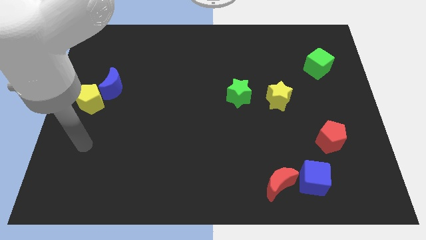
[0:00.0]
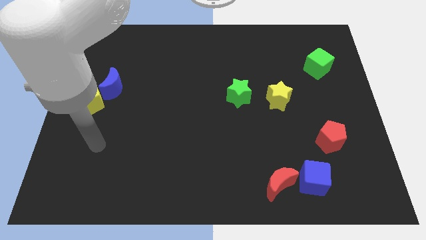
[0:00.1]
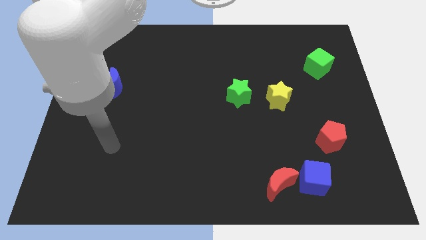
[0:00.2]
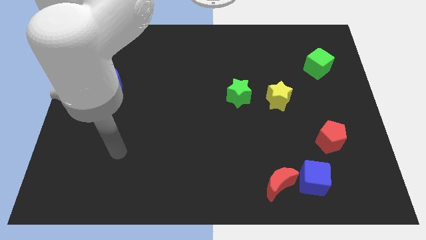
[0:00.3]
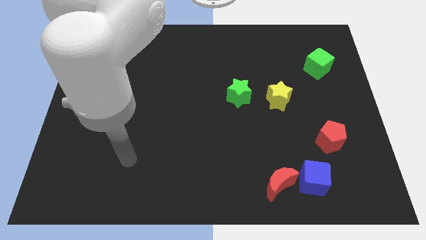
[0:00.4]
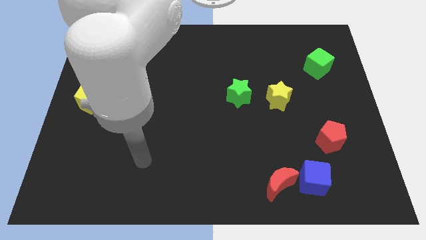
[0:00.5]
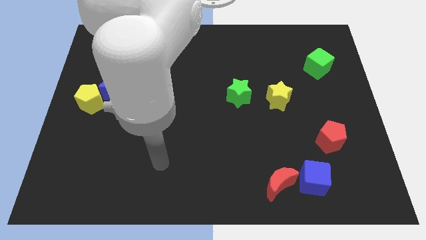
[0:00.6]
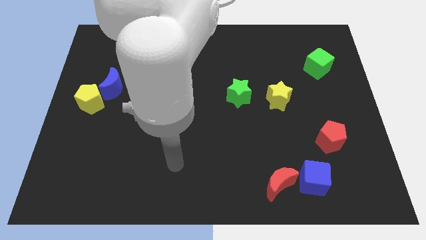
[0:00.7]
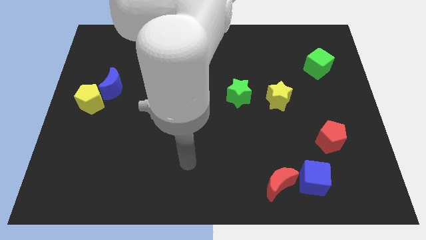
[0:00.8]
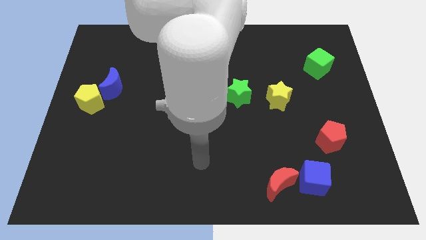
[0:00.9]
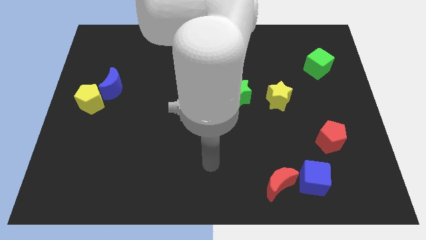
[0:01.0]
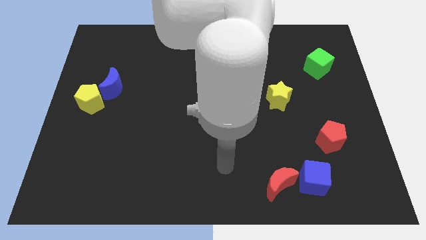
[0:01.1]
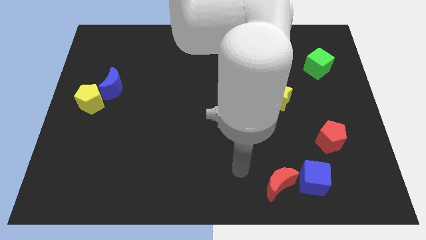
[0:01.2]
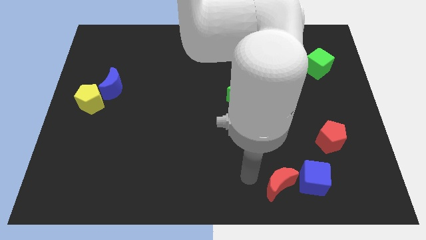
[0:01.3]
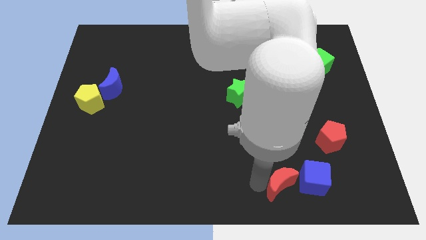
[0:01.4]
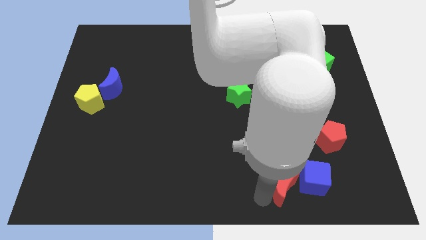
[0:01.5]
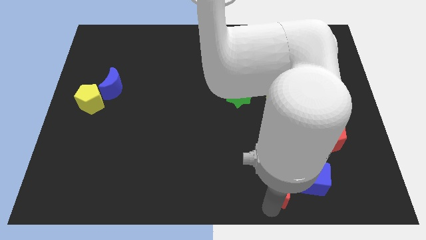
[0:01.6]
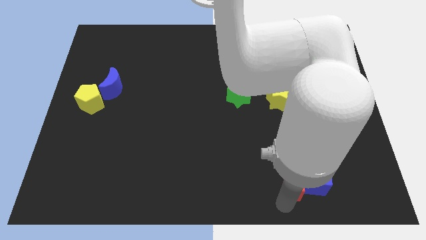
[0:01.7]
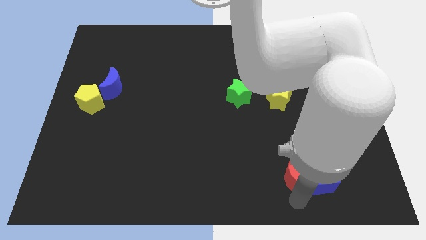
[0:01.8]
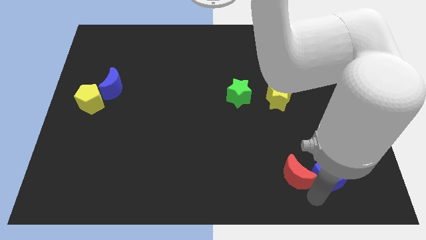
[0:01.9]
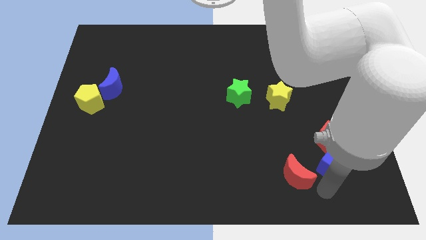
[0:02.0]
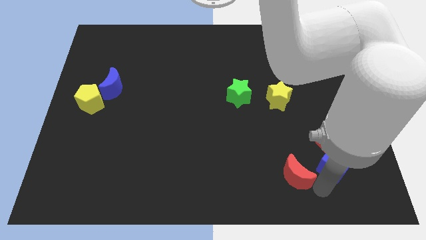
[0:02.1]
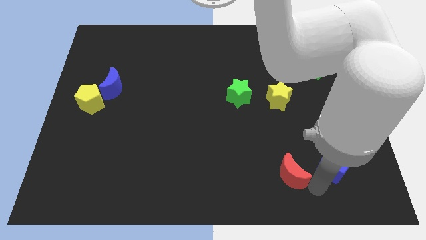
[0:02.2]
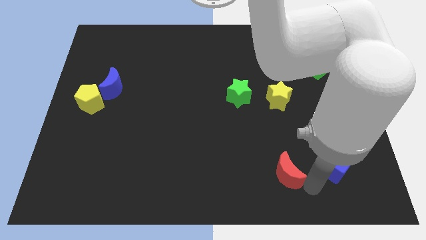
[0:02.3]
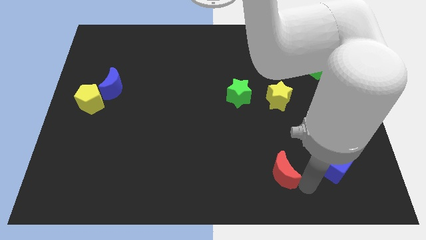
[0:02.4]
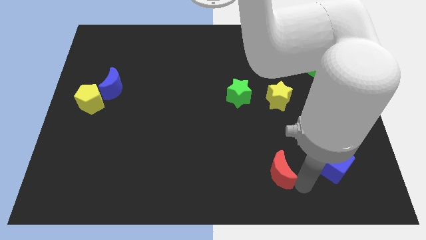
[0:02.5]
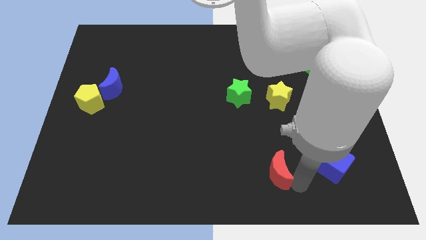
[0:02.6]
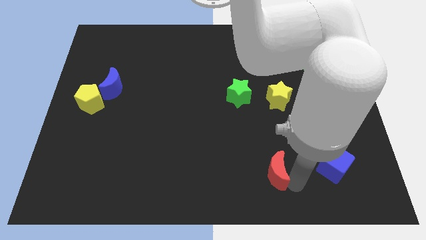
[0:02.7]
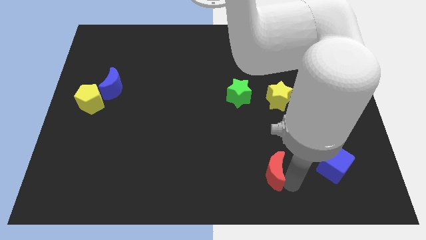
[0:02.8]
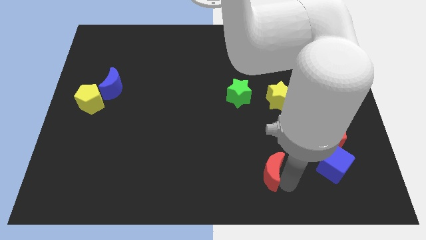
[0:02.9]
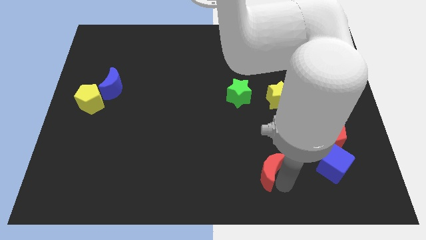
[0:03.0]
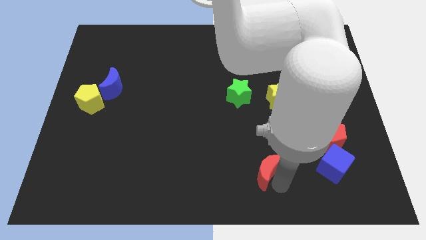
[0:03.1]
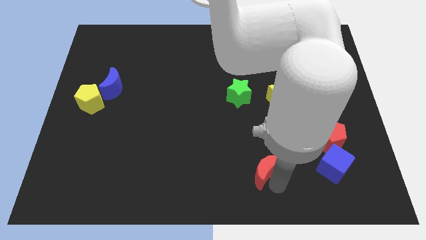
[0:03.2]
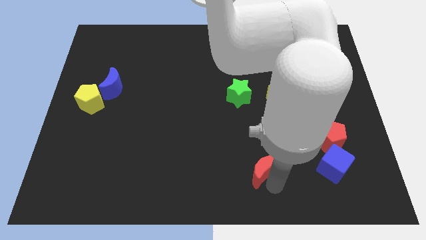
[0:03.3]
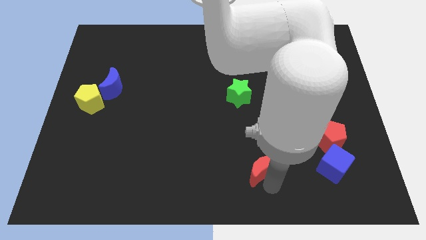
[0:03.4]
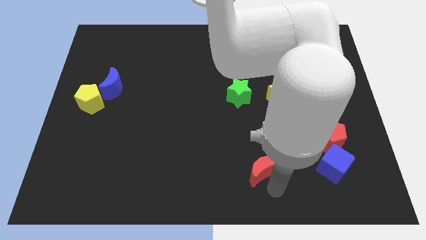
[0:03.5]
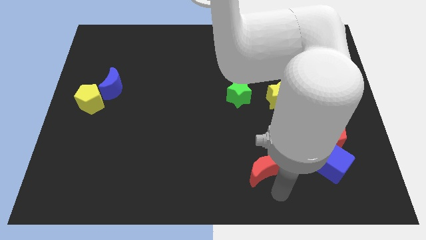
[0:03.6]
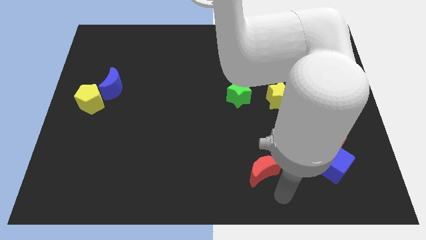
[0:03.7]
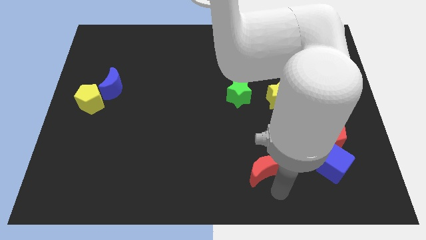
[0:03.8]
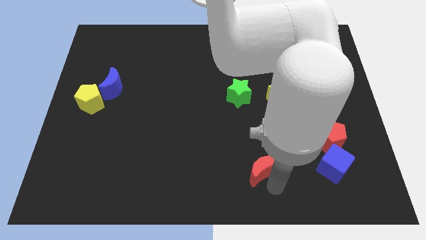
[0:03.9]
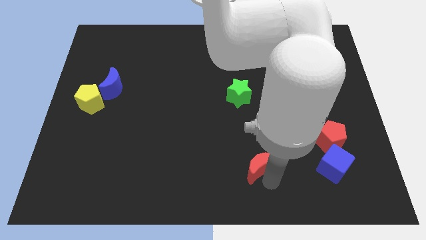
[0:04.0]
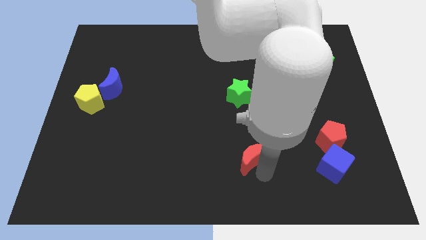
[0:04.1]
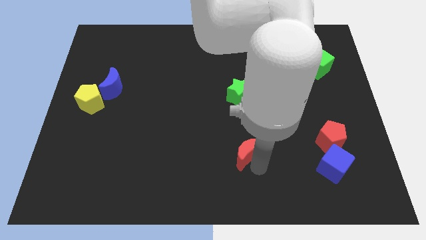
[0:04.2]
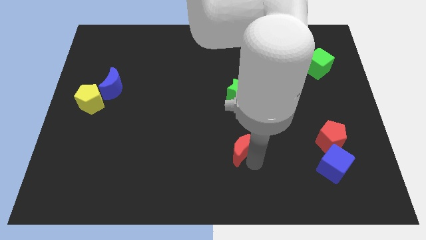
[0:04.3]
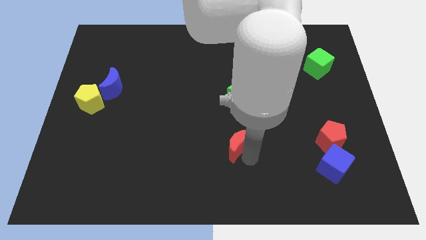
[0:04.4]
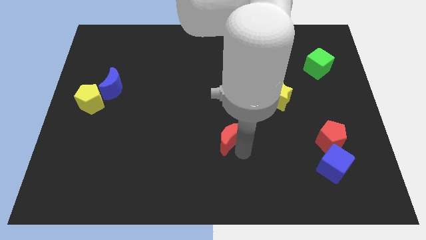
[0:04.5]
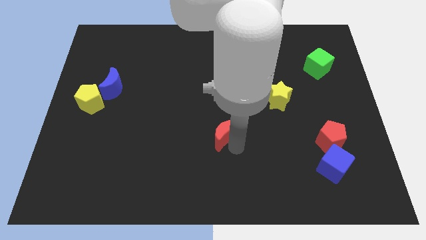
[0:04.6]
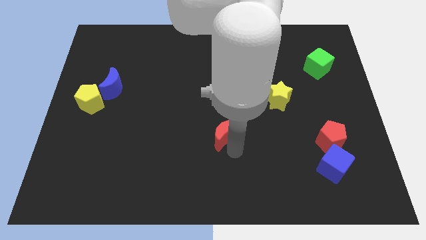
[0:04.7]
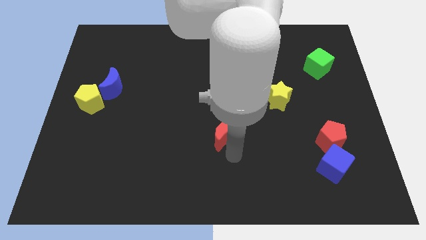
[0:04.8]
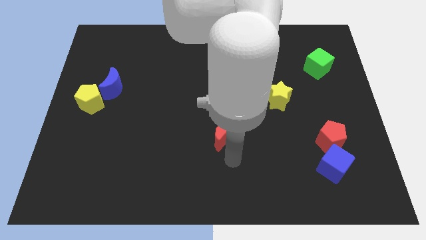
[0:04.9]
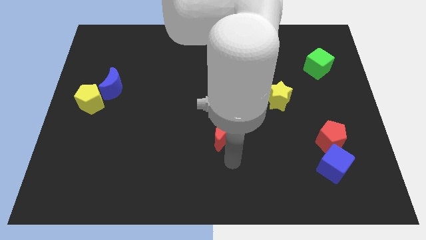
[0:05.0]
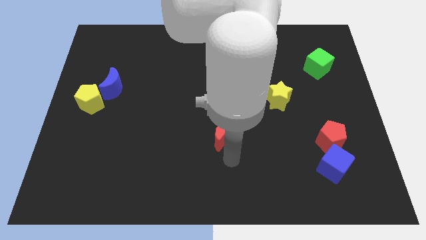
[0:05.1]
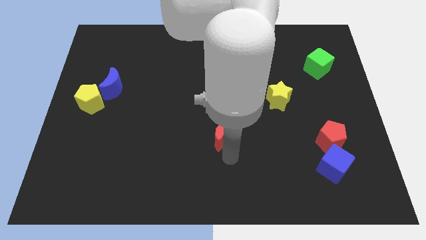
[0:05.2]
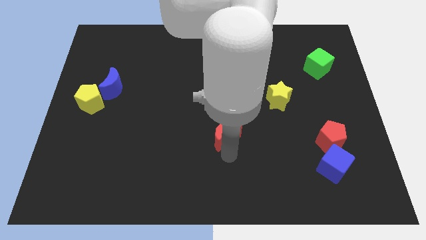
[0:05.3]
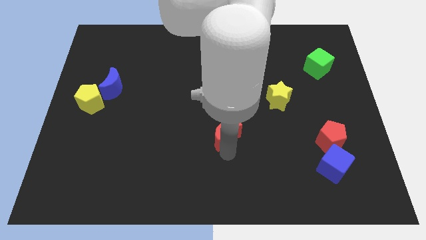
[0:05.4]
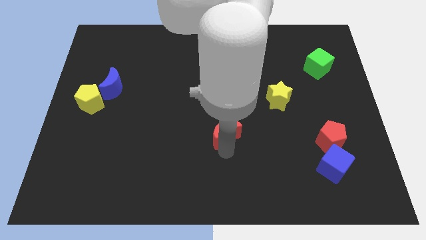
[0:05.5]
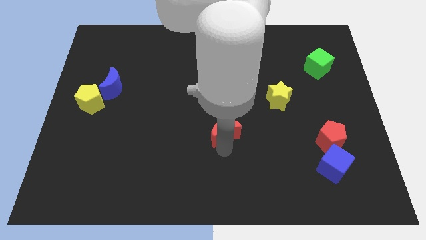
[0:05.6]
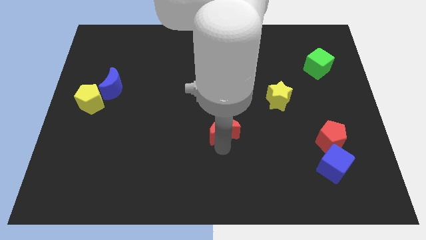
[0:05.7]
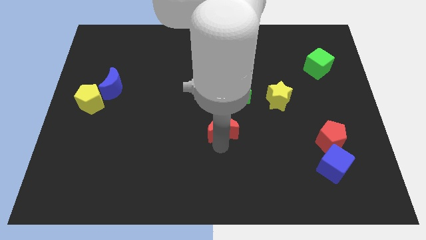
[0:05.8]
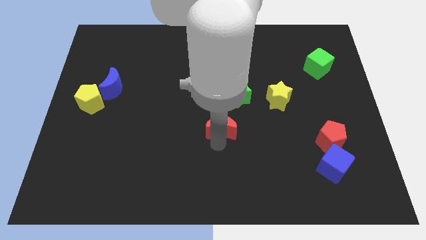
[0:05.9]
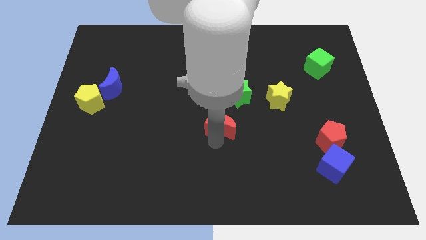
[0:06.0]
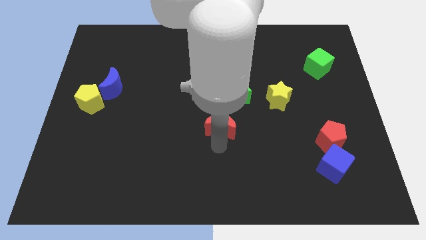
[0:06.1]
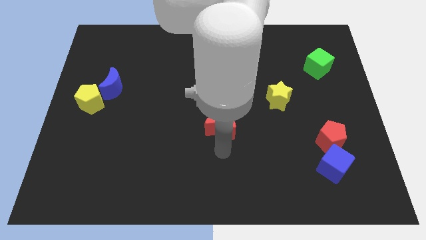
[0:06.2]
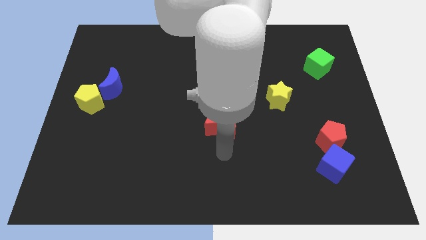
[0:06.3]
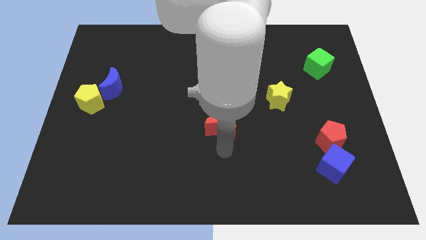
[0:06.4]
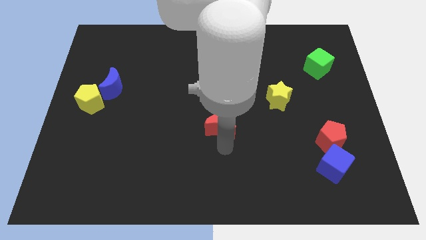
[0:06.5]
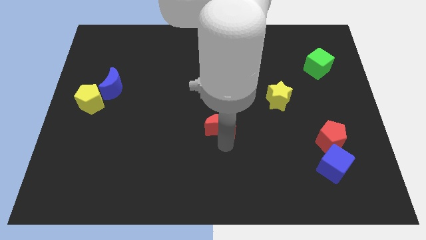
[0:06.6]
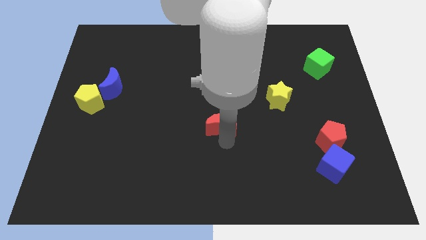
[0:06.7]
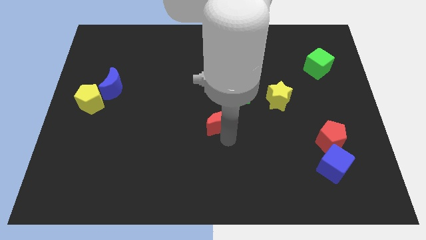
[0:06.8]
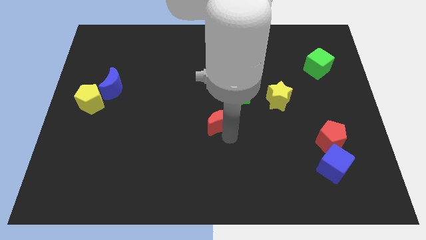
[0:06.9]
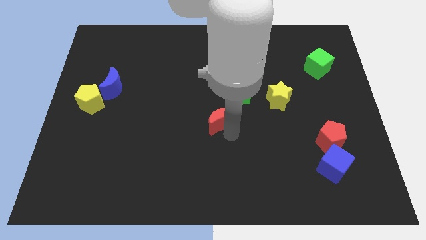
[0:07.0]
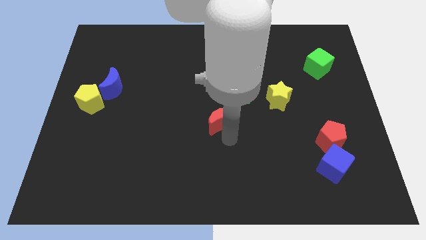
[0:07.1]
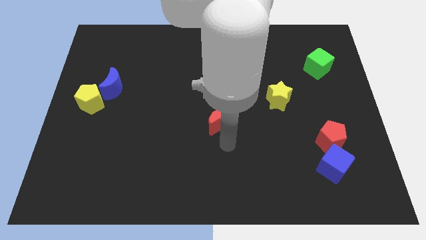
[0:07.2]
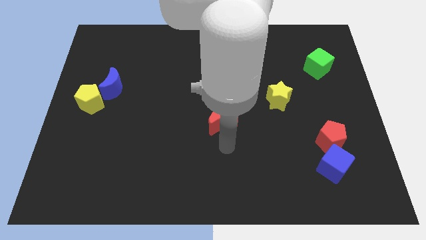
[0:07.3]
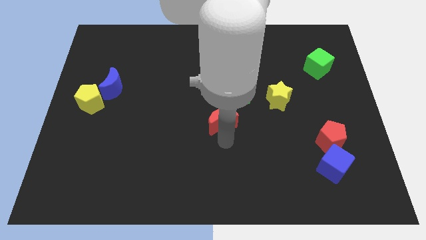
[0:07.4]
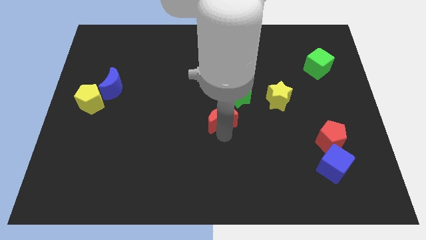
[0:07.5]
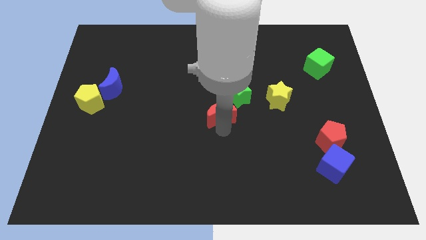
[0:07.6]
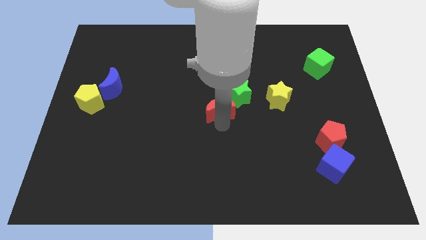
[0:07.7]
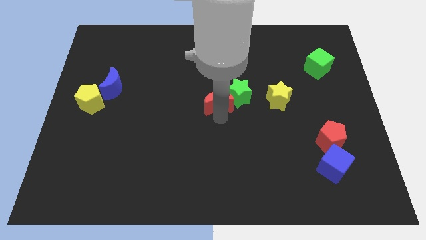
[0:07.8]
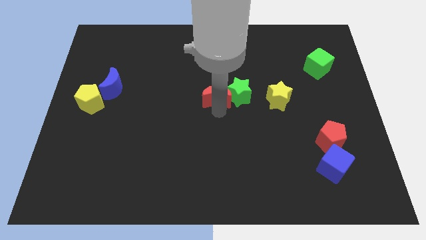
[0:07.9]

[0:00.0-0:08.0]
push the red moon to the top left side of the green star
